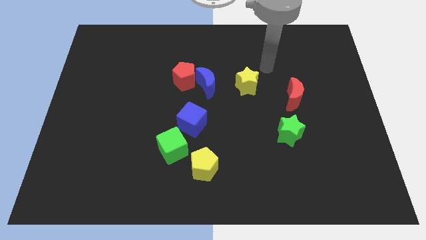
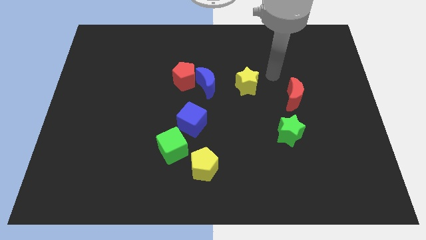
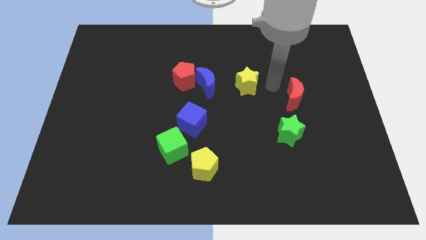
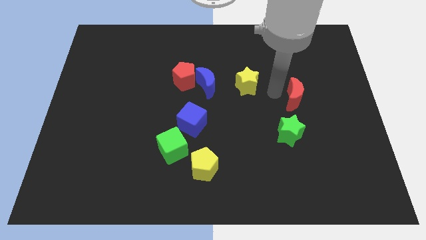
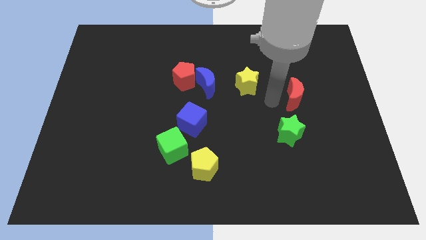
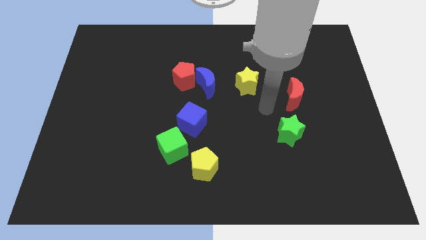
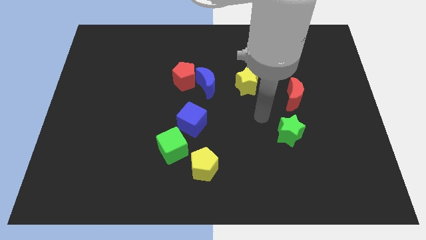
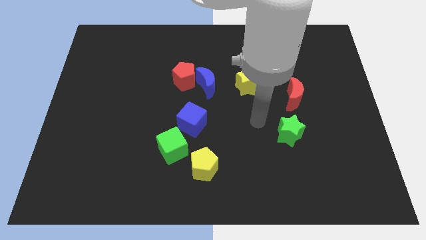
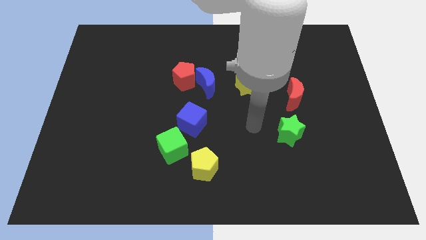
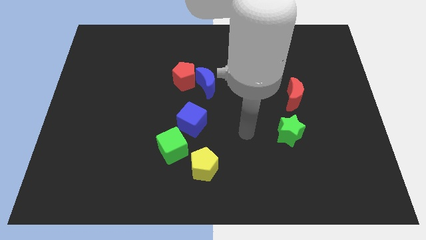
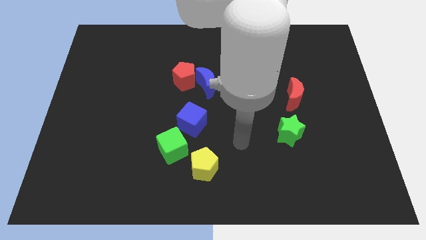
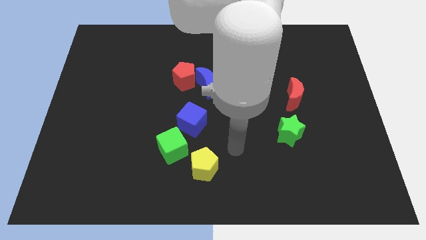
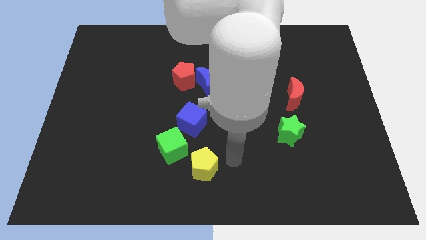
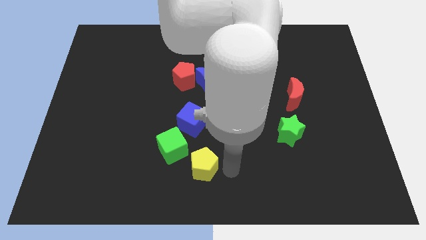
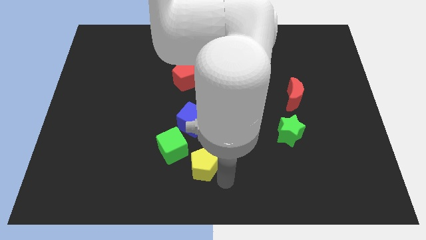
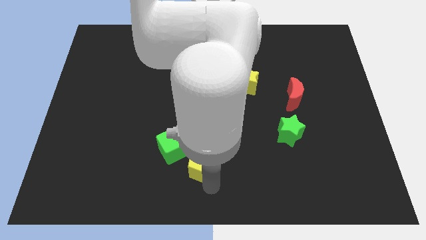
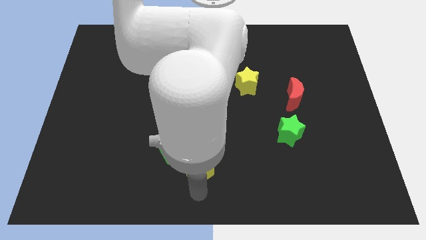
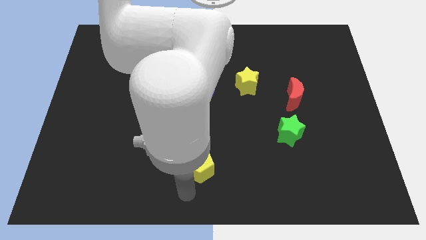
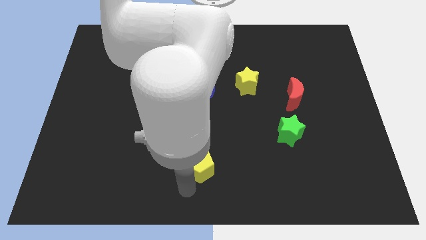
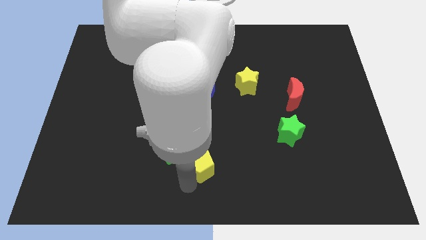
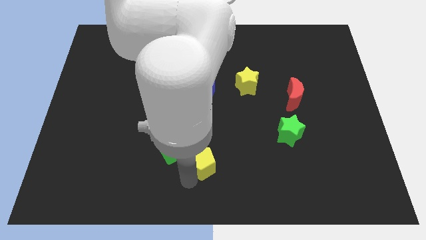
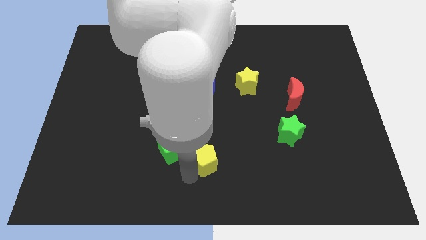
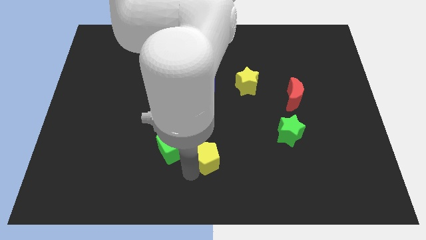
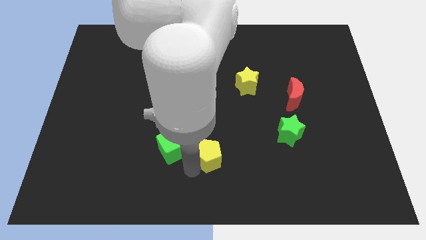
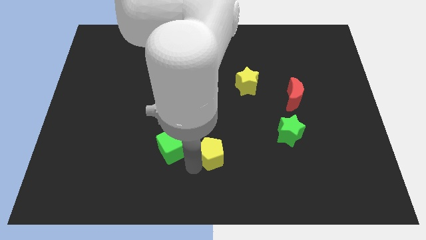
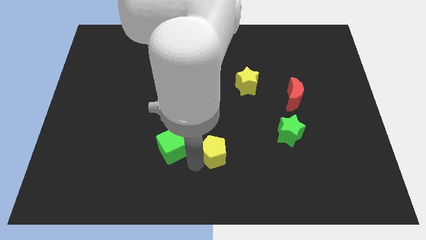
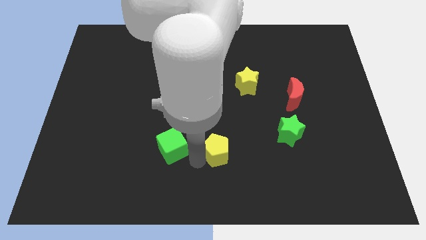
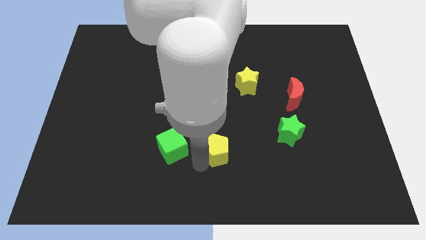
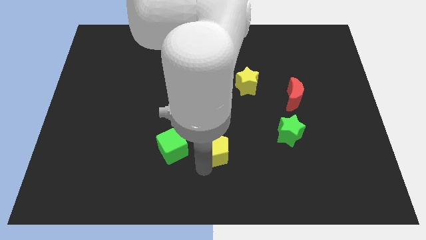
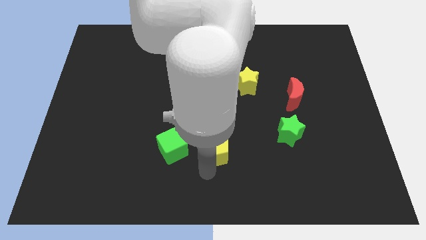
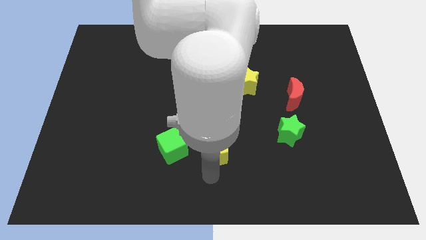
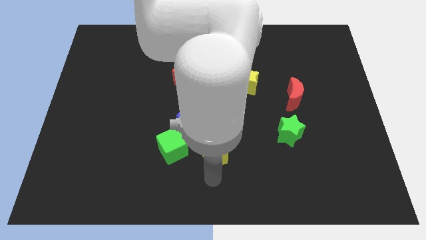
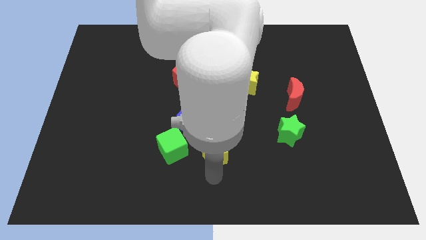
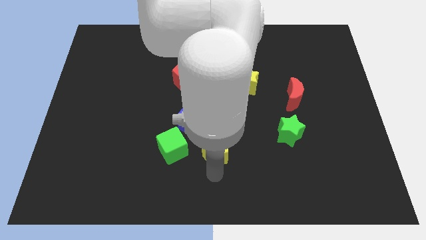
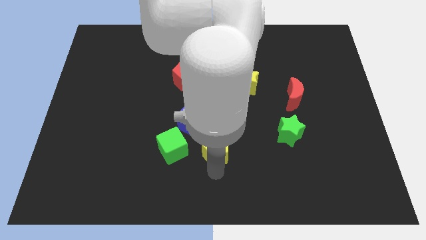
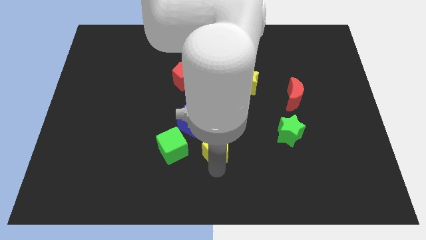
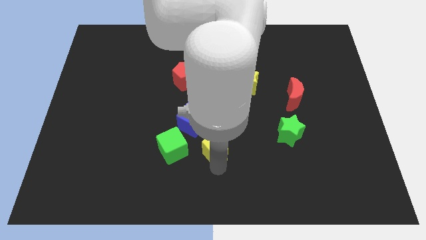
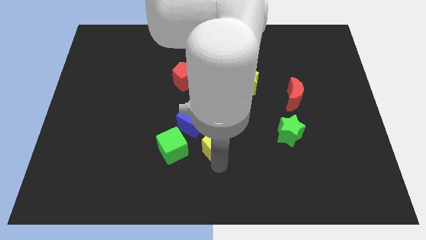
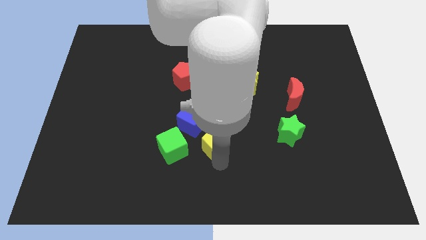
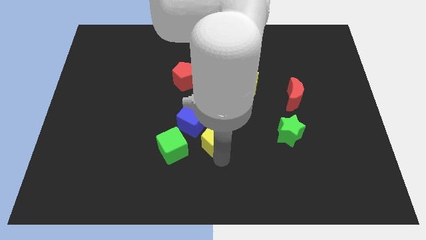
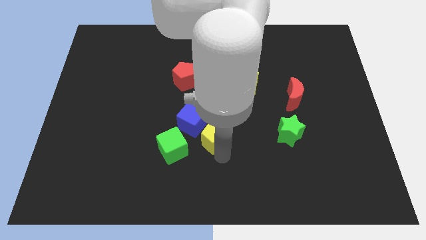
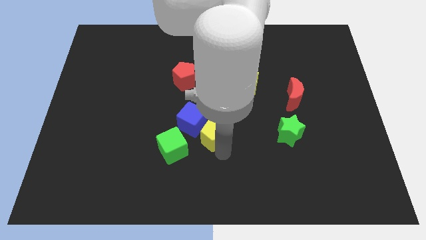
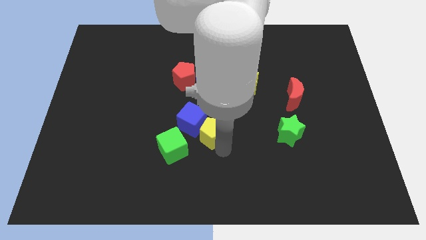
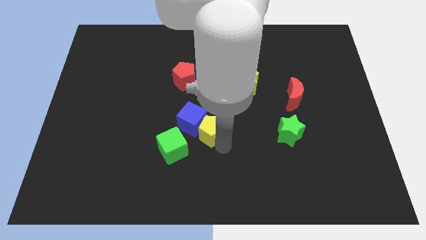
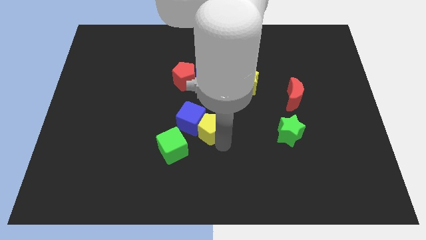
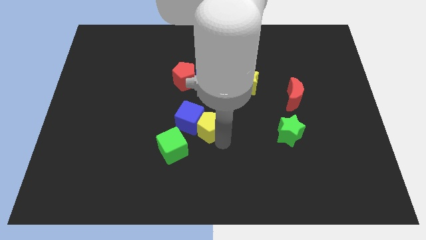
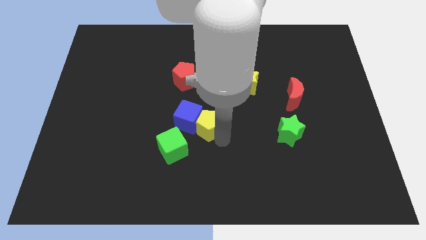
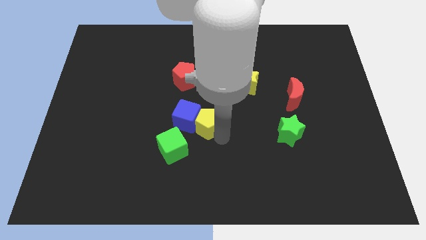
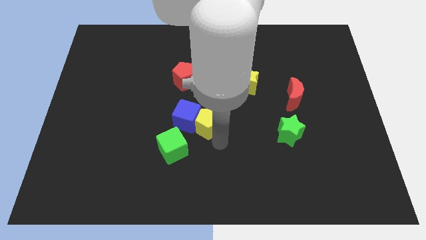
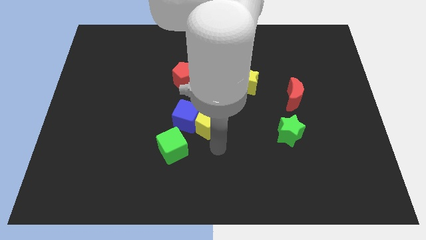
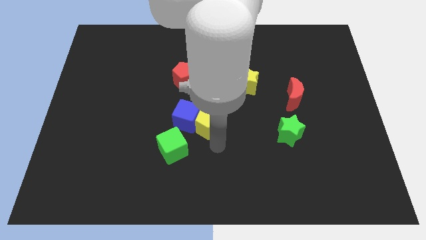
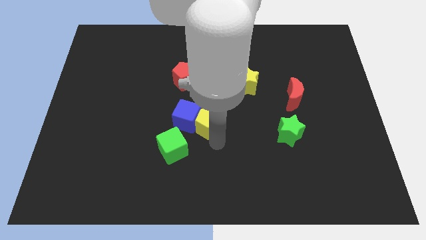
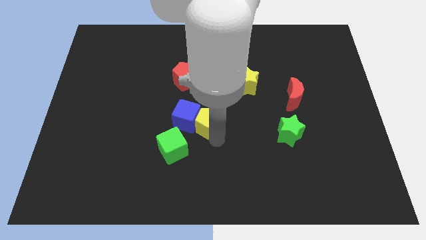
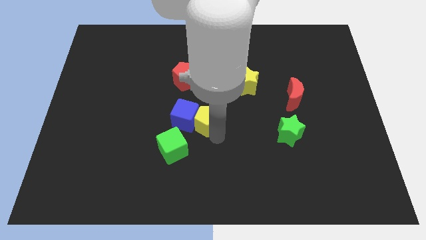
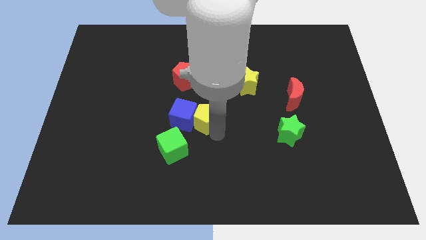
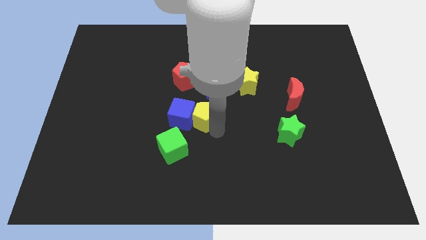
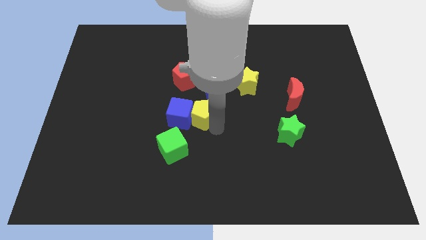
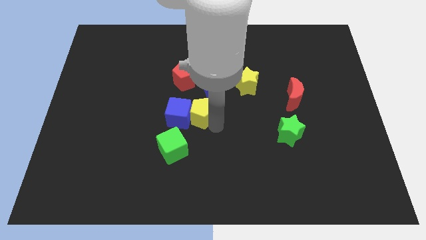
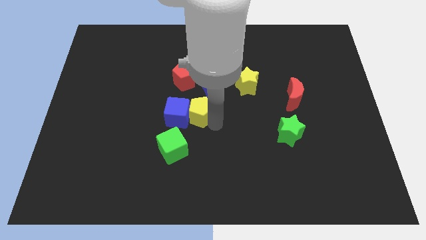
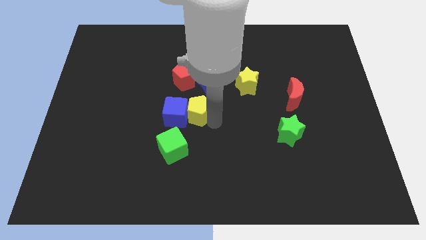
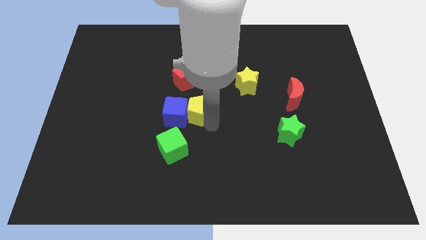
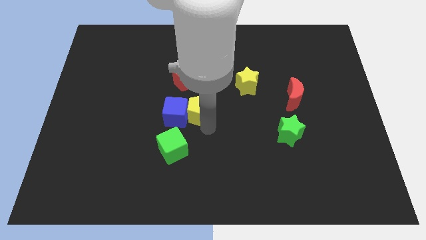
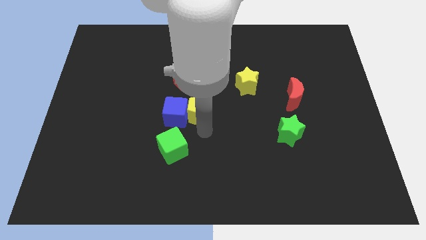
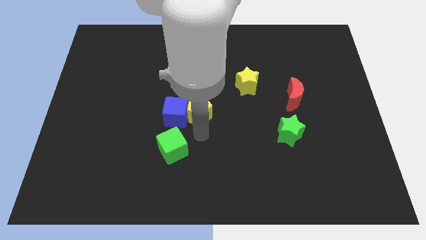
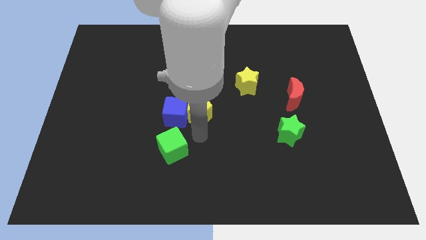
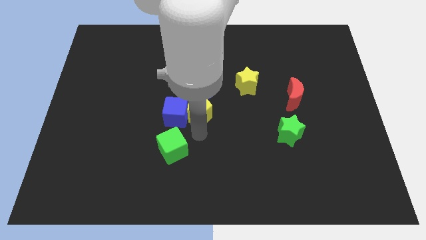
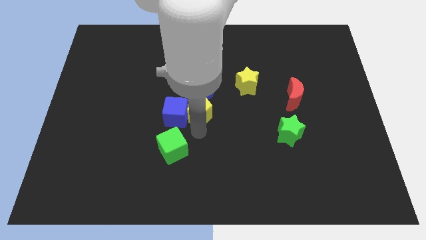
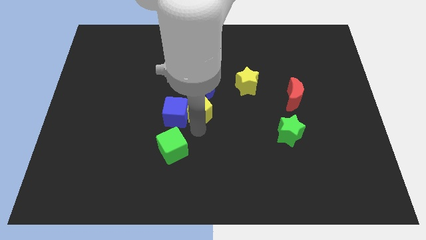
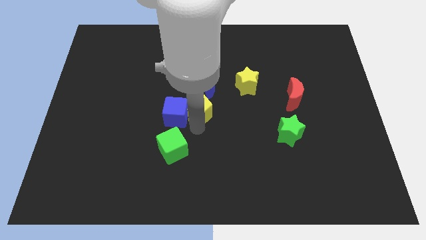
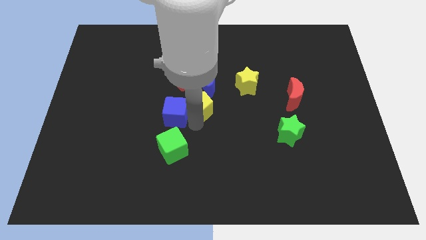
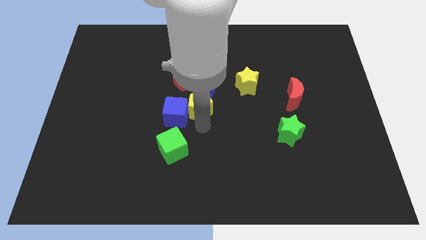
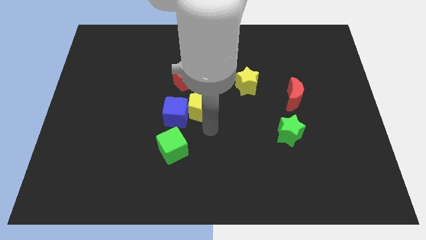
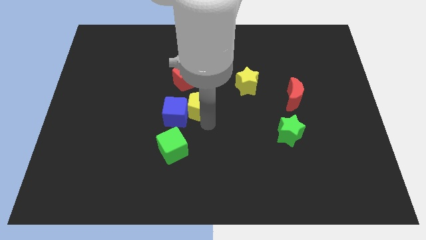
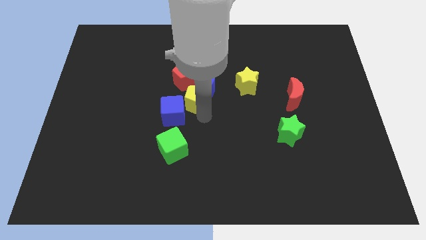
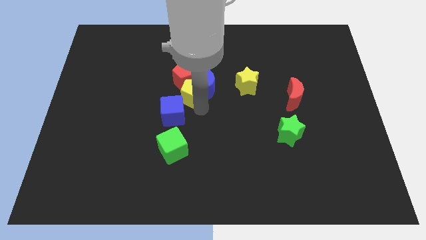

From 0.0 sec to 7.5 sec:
put the yellow pentagon close to the red pentagon
